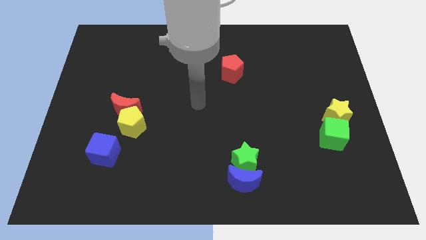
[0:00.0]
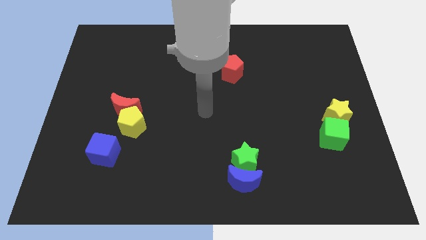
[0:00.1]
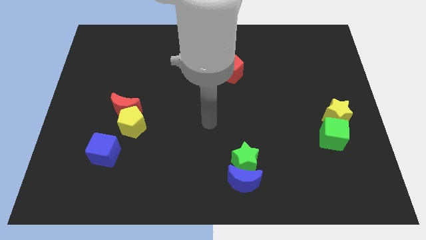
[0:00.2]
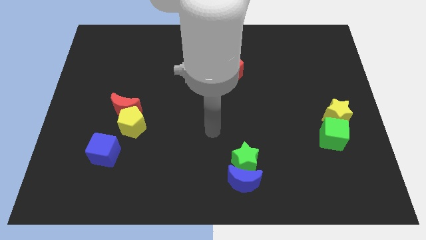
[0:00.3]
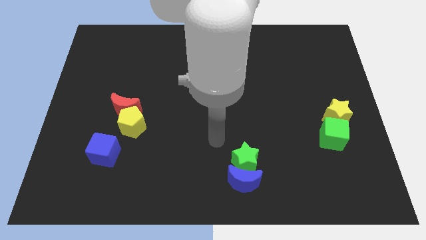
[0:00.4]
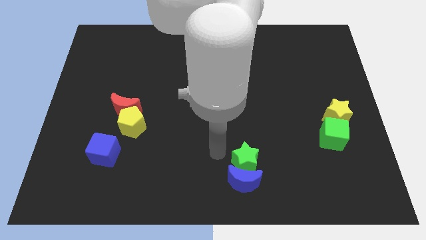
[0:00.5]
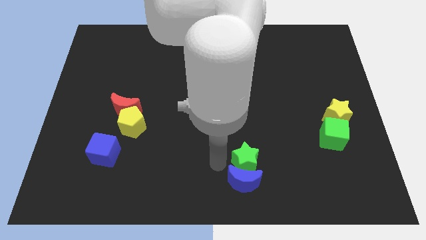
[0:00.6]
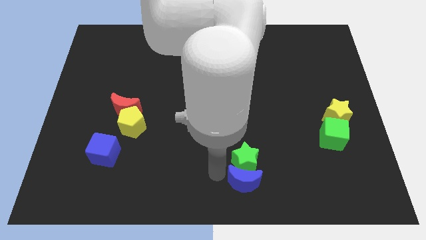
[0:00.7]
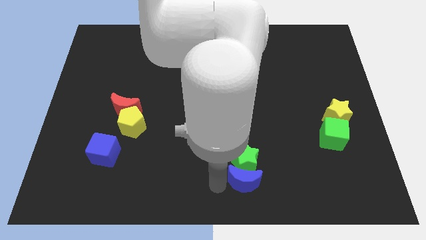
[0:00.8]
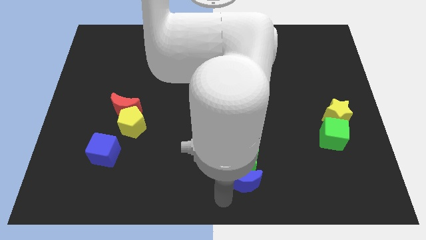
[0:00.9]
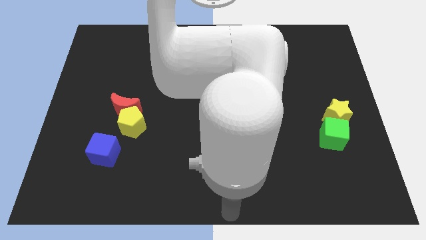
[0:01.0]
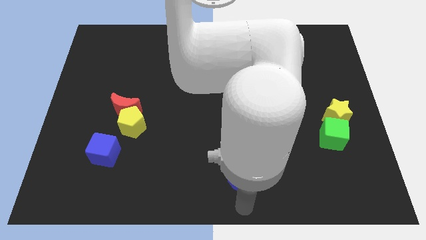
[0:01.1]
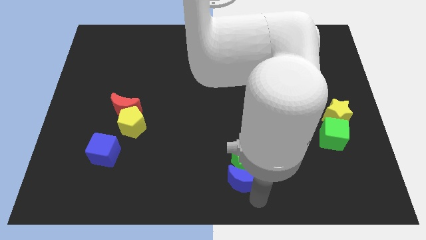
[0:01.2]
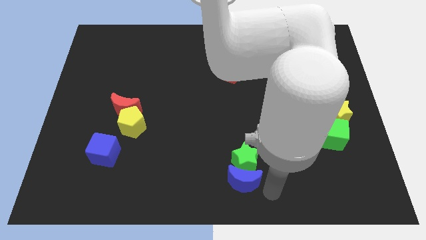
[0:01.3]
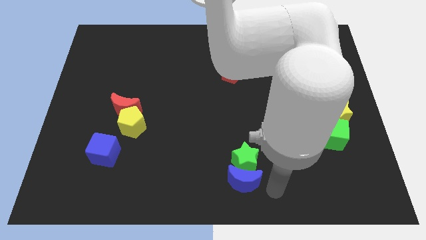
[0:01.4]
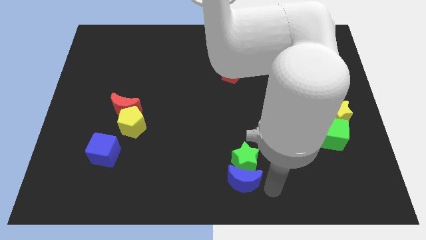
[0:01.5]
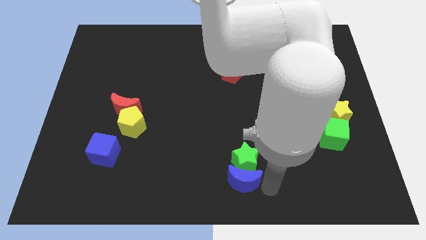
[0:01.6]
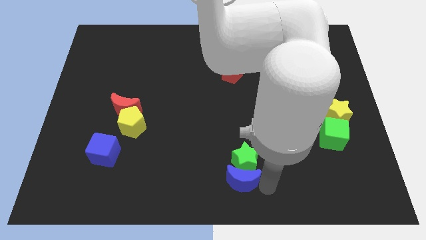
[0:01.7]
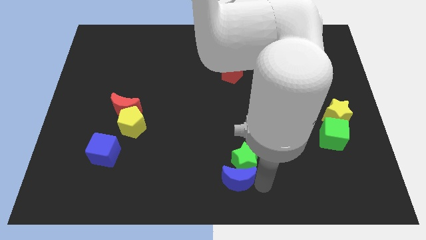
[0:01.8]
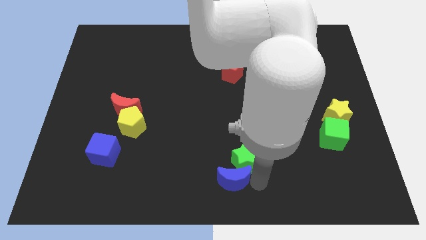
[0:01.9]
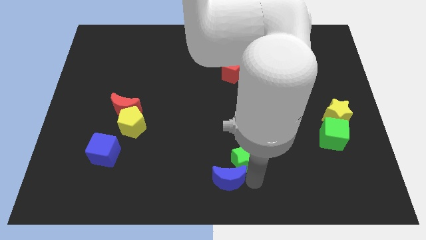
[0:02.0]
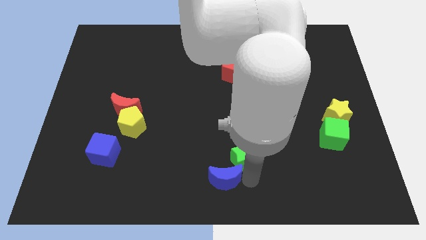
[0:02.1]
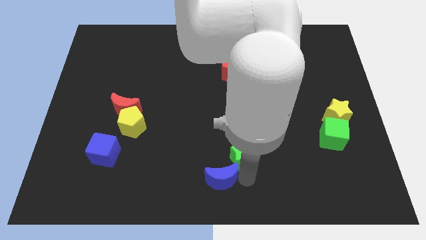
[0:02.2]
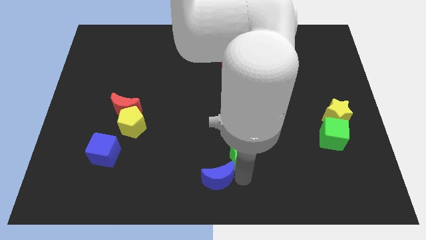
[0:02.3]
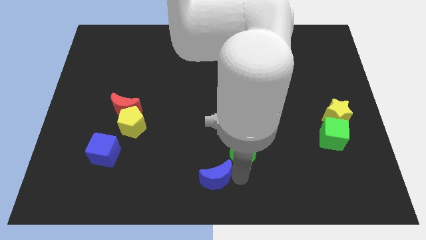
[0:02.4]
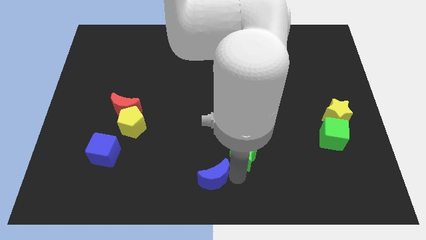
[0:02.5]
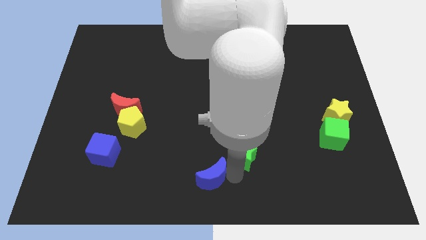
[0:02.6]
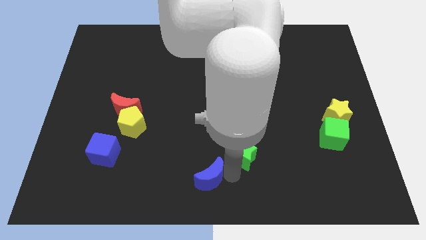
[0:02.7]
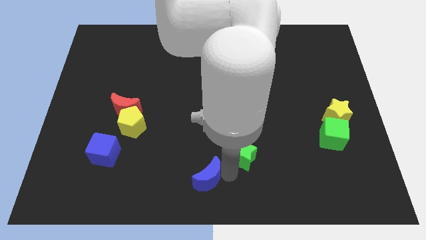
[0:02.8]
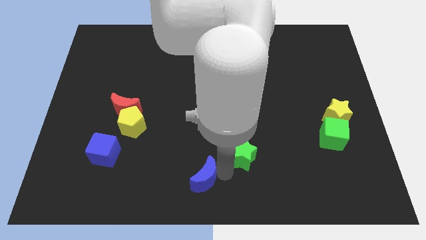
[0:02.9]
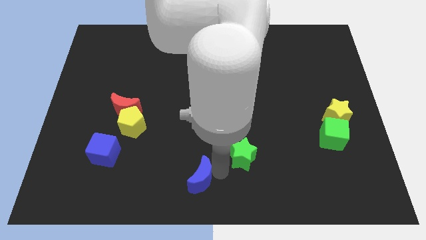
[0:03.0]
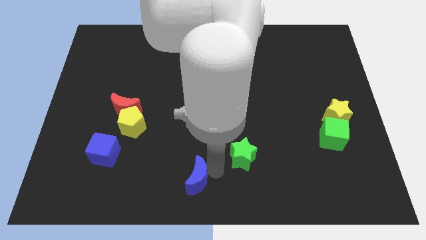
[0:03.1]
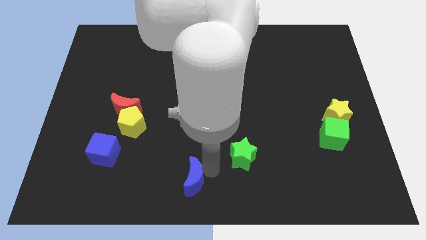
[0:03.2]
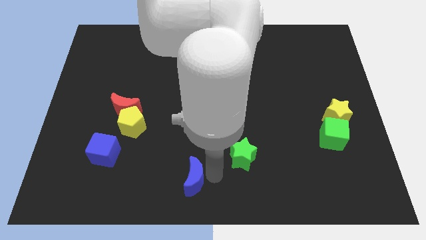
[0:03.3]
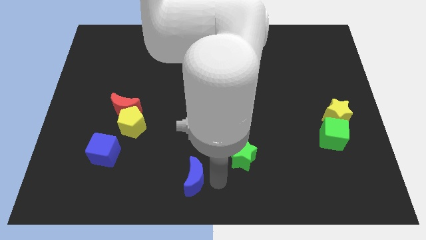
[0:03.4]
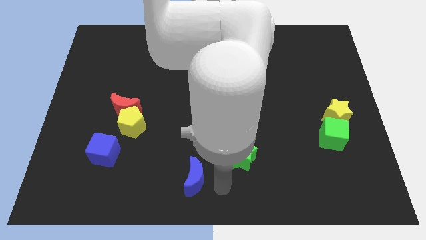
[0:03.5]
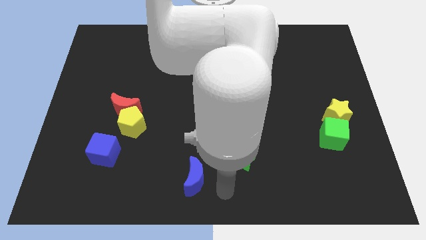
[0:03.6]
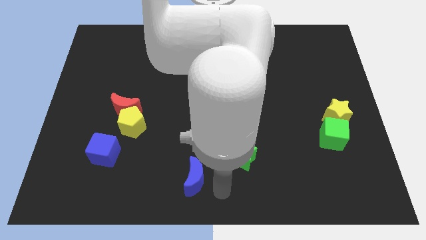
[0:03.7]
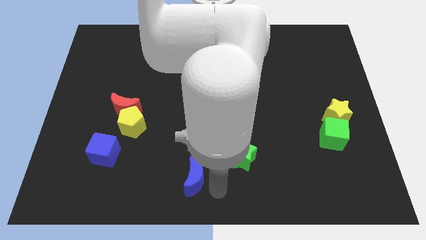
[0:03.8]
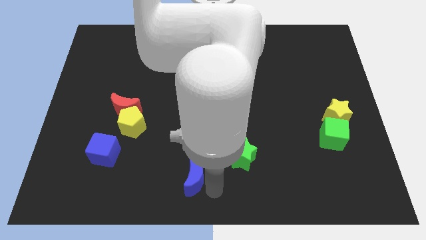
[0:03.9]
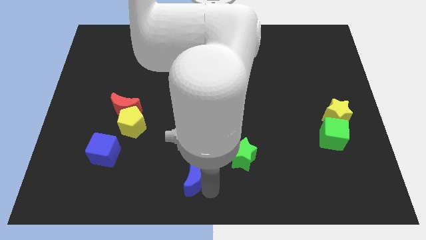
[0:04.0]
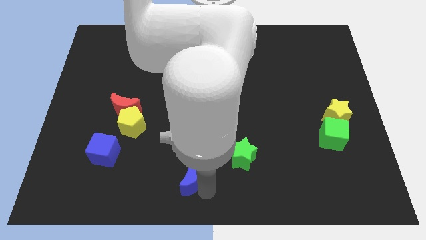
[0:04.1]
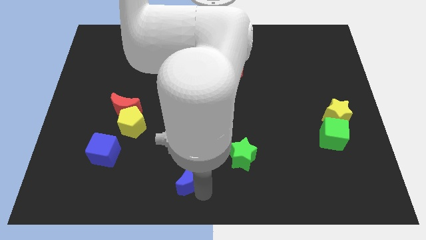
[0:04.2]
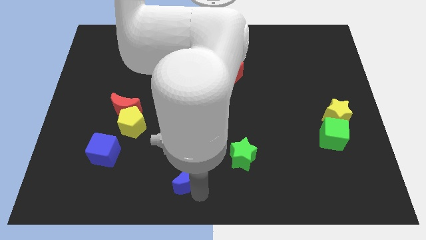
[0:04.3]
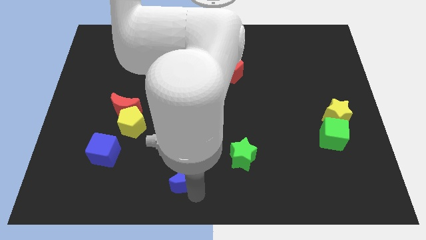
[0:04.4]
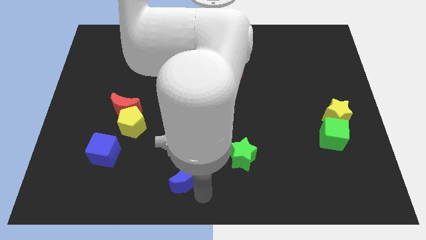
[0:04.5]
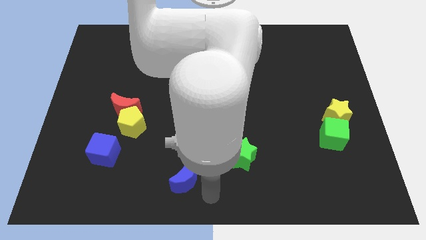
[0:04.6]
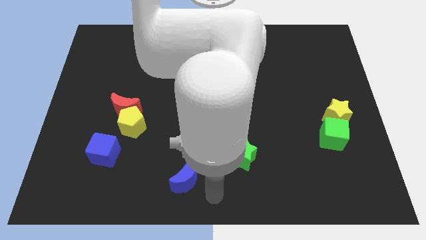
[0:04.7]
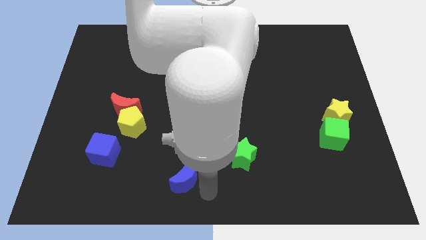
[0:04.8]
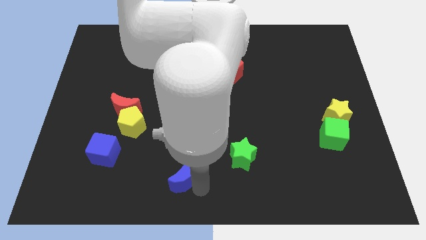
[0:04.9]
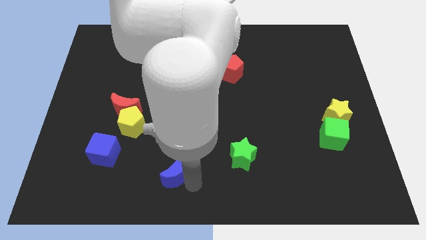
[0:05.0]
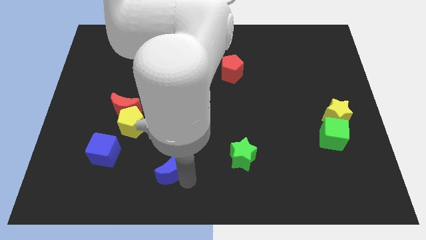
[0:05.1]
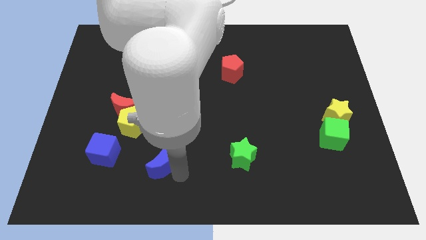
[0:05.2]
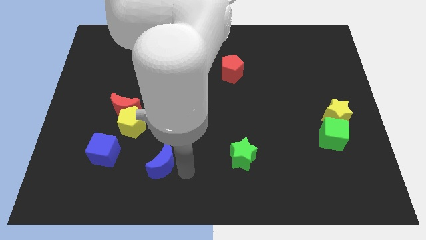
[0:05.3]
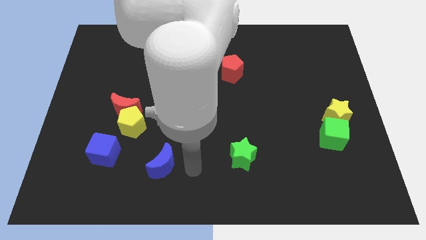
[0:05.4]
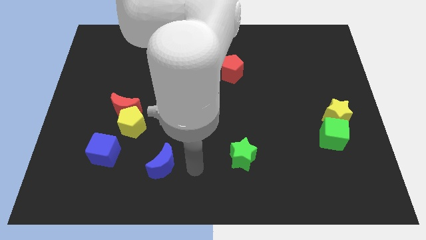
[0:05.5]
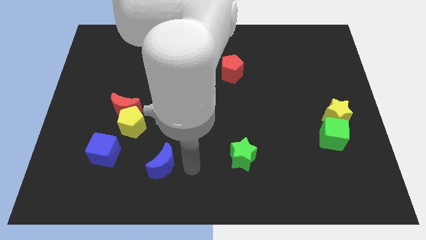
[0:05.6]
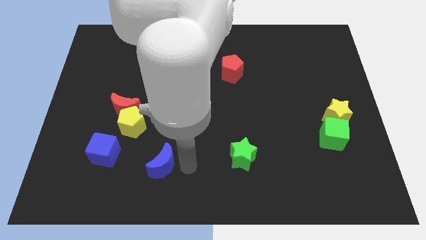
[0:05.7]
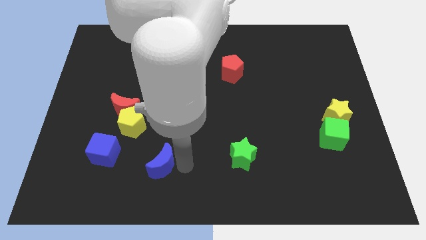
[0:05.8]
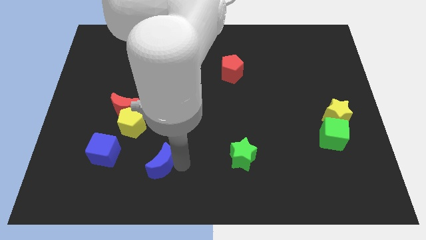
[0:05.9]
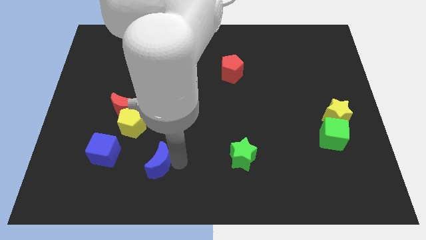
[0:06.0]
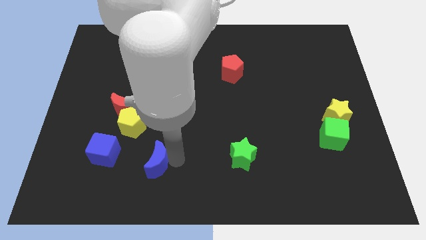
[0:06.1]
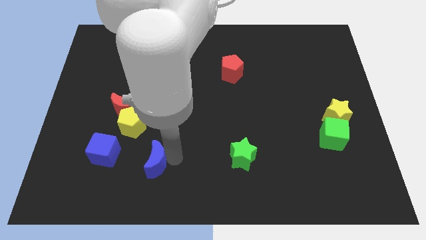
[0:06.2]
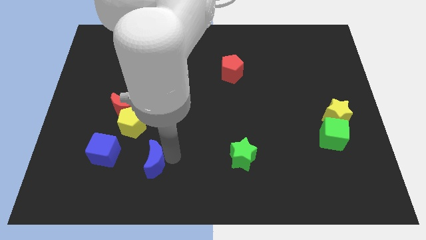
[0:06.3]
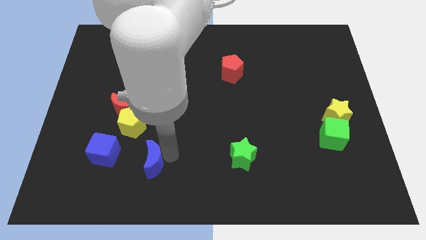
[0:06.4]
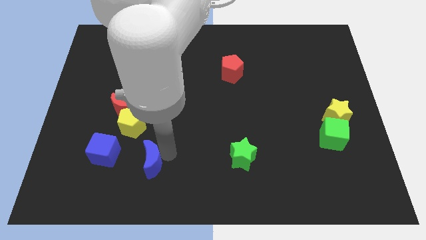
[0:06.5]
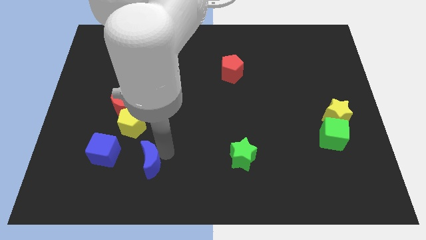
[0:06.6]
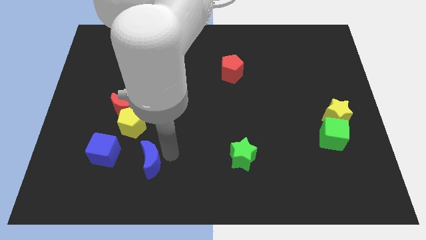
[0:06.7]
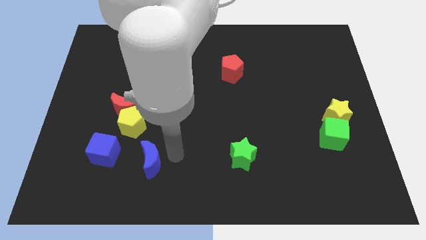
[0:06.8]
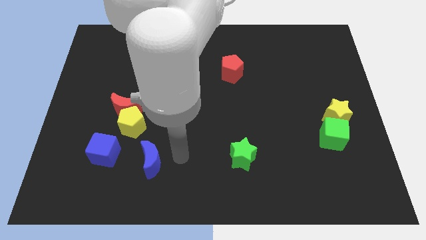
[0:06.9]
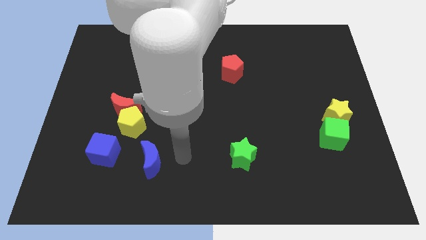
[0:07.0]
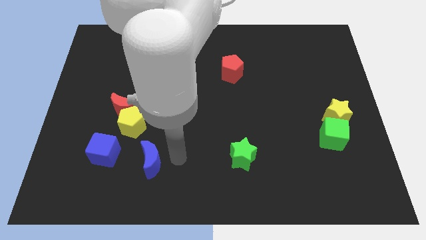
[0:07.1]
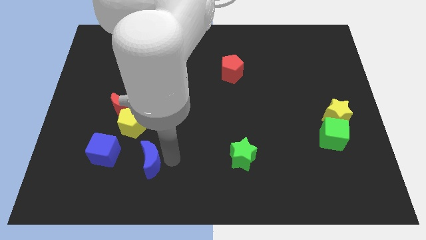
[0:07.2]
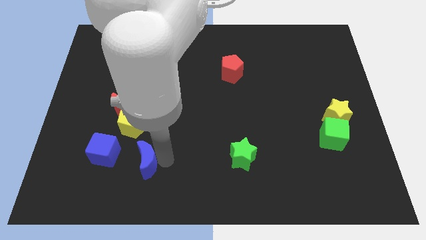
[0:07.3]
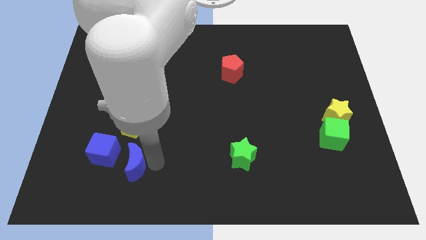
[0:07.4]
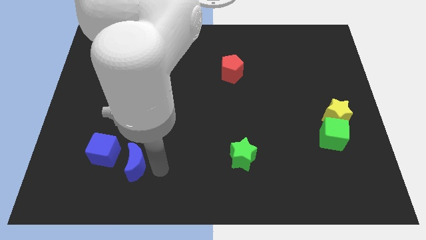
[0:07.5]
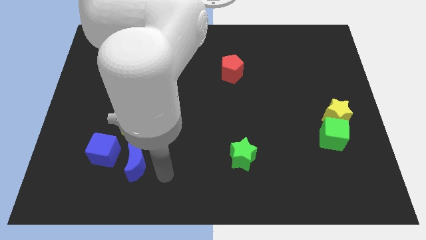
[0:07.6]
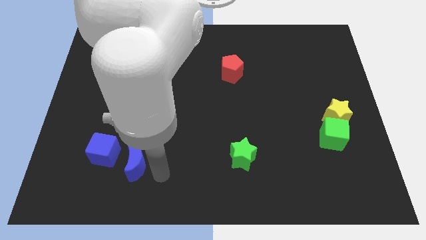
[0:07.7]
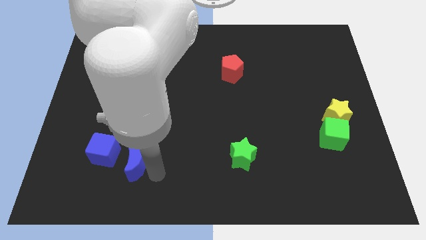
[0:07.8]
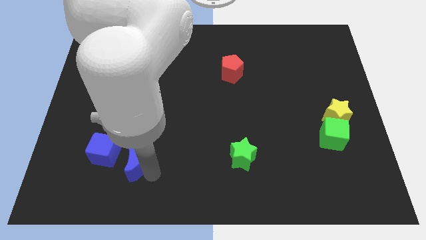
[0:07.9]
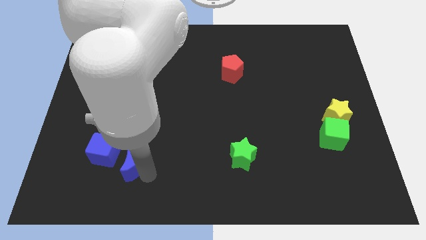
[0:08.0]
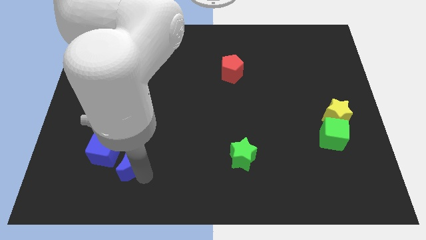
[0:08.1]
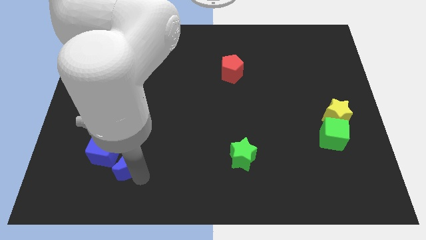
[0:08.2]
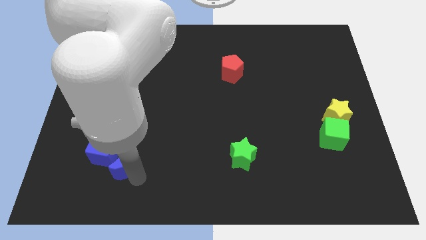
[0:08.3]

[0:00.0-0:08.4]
move the blue moon towards the blue cube
